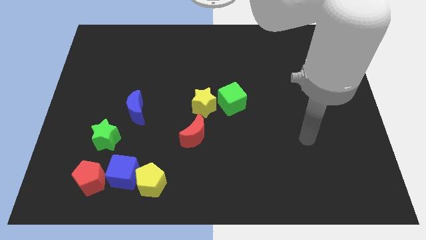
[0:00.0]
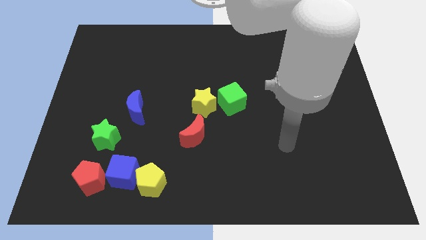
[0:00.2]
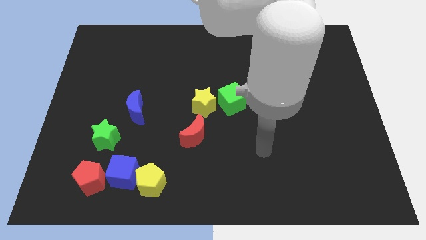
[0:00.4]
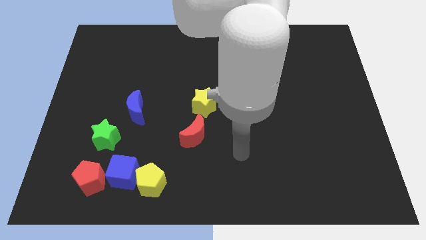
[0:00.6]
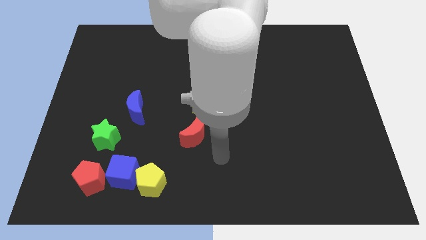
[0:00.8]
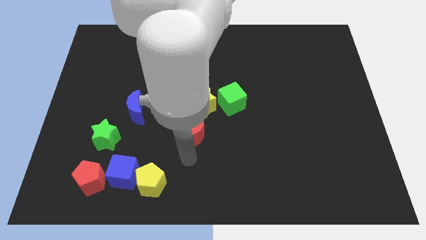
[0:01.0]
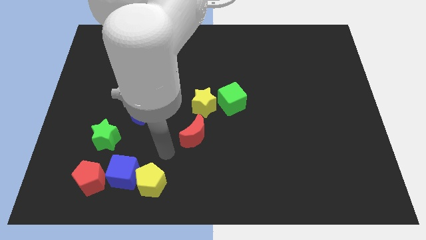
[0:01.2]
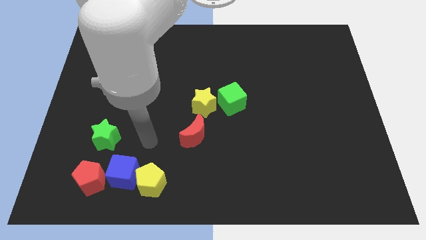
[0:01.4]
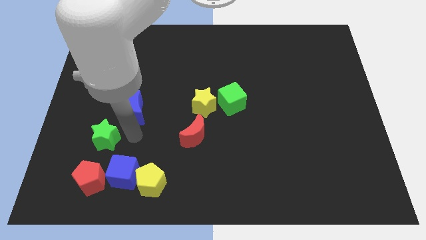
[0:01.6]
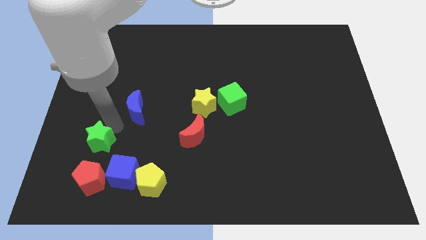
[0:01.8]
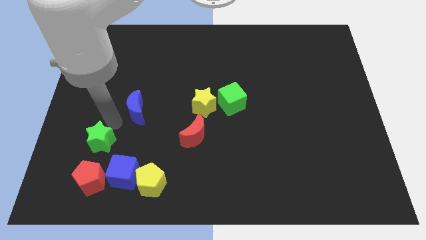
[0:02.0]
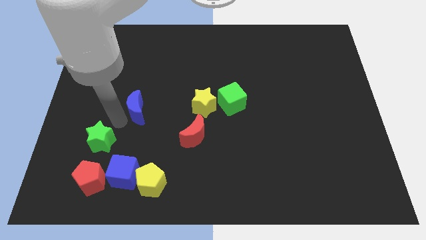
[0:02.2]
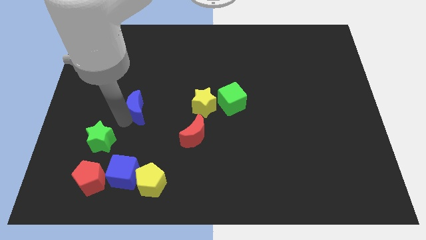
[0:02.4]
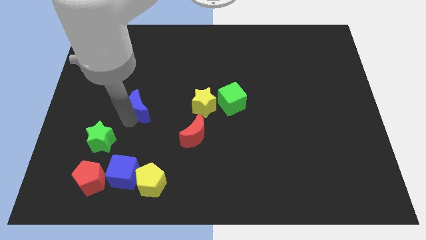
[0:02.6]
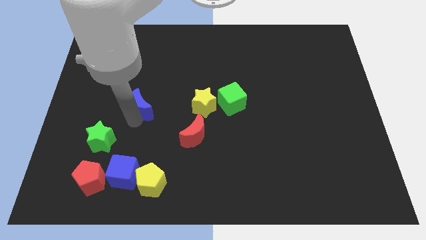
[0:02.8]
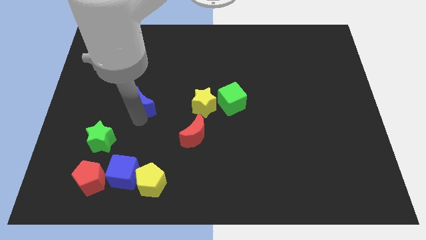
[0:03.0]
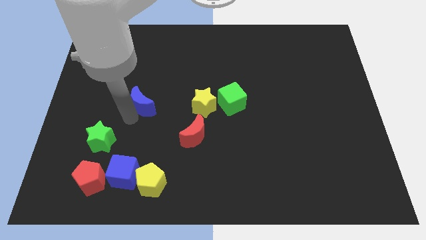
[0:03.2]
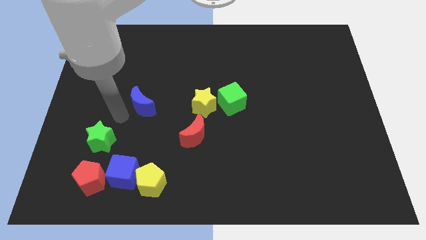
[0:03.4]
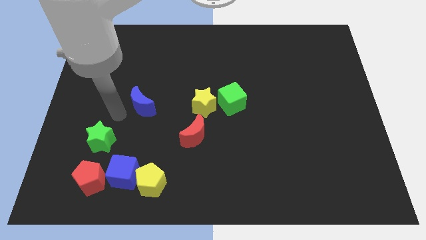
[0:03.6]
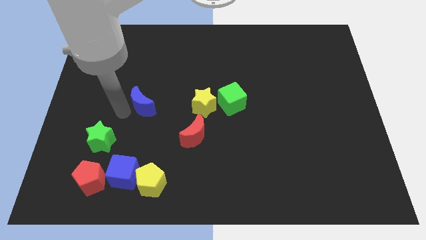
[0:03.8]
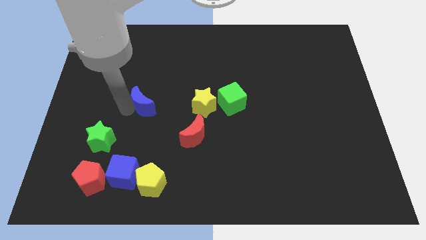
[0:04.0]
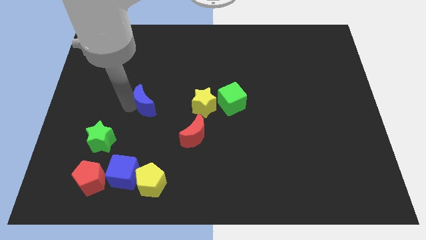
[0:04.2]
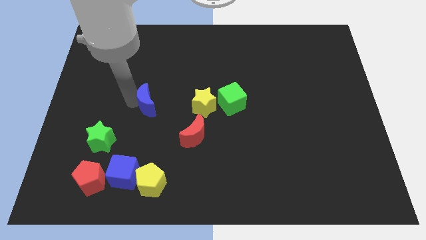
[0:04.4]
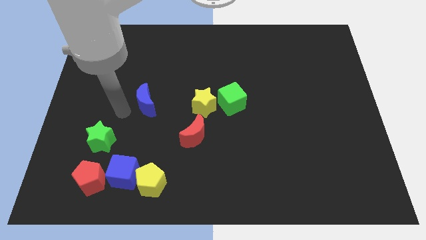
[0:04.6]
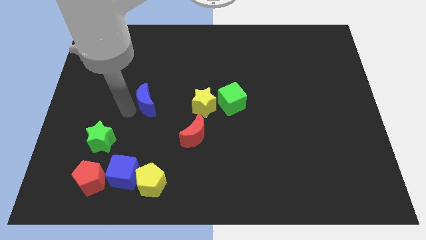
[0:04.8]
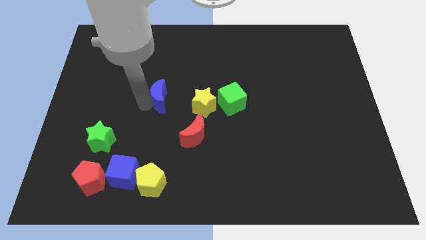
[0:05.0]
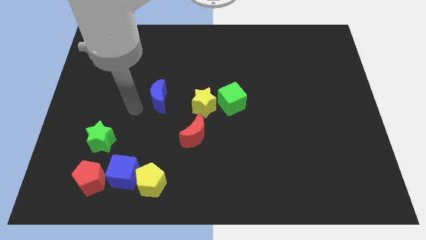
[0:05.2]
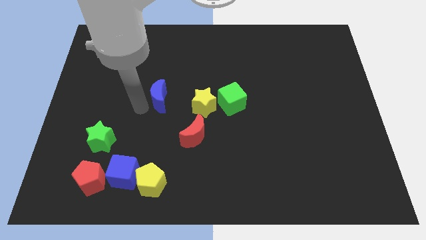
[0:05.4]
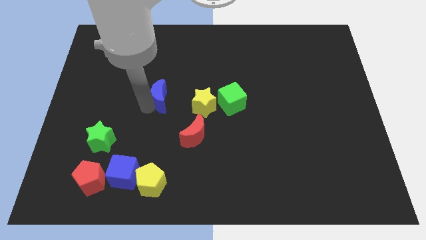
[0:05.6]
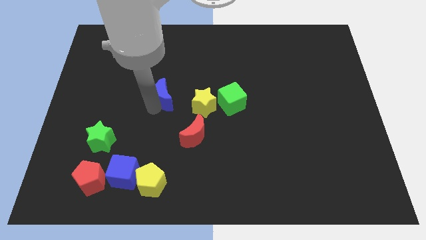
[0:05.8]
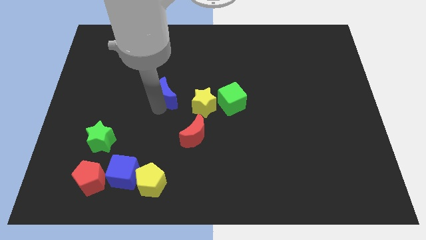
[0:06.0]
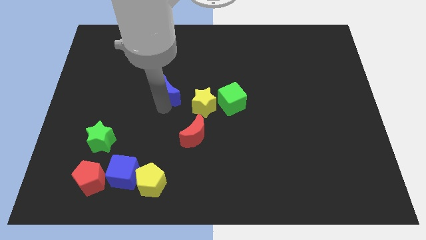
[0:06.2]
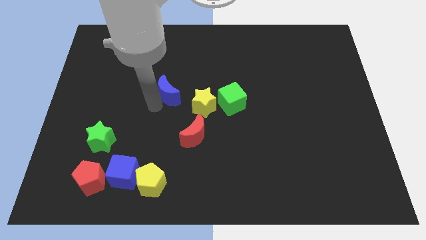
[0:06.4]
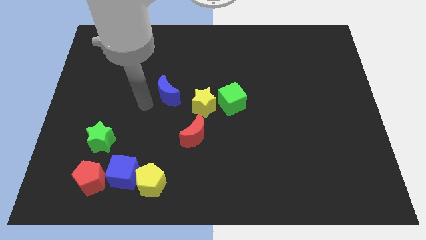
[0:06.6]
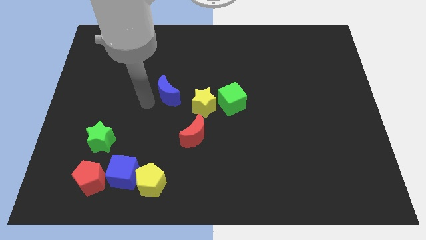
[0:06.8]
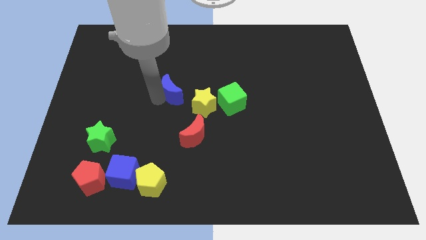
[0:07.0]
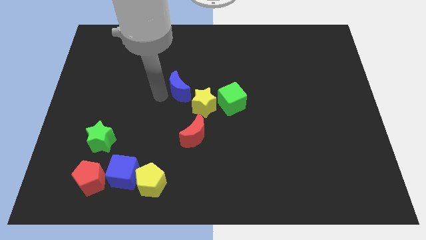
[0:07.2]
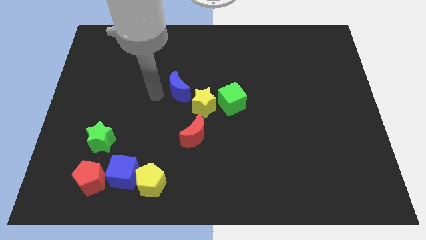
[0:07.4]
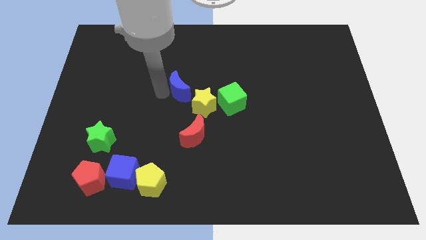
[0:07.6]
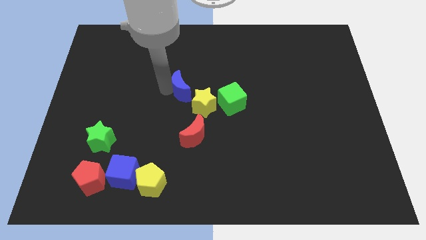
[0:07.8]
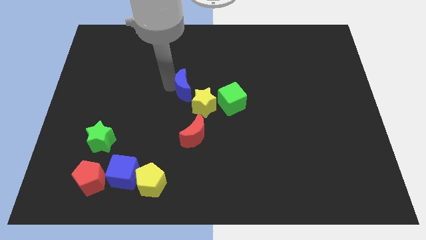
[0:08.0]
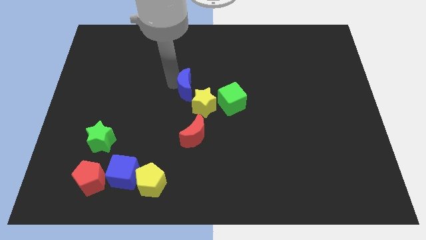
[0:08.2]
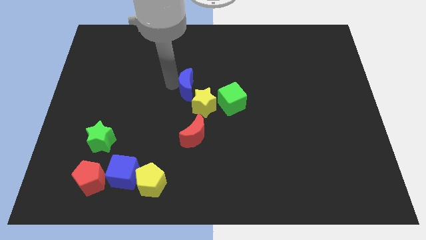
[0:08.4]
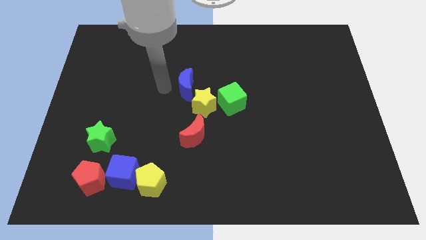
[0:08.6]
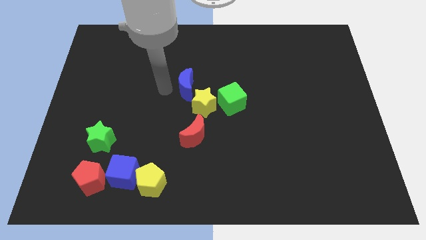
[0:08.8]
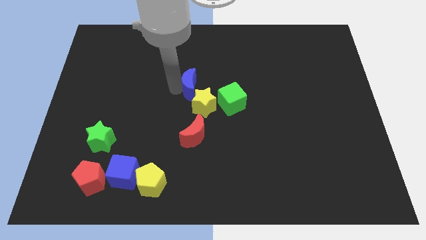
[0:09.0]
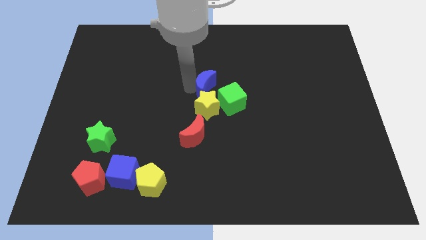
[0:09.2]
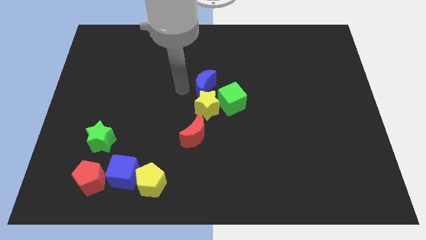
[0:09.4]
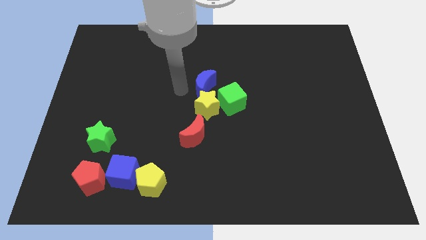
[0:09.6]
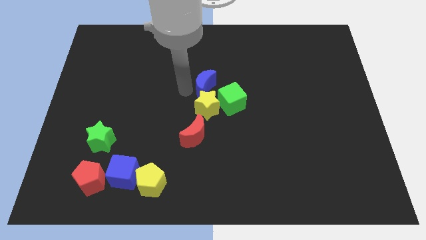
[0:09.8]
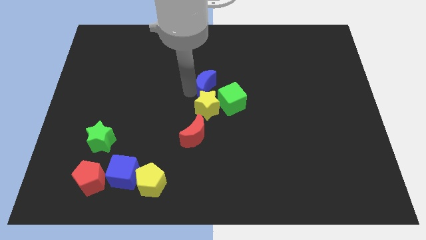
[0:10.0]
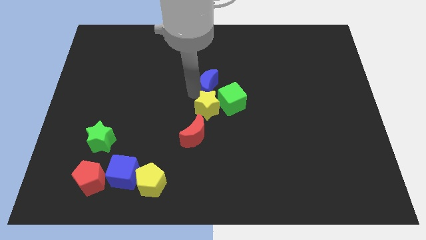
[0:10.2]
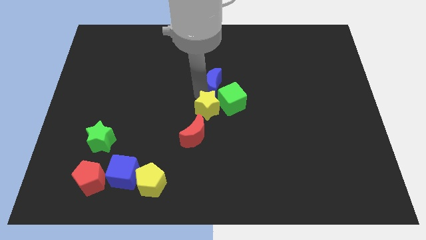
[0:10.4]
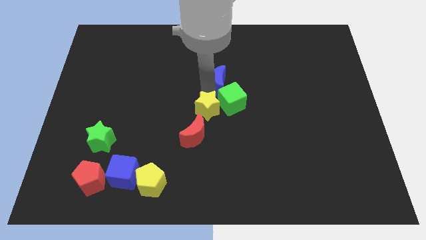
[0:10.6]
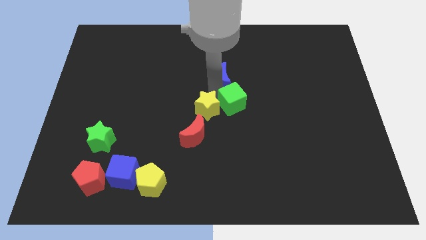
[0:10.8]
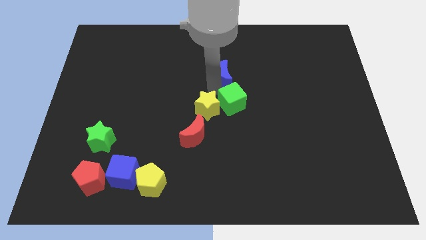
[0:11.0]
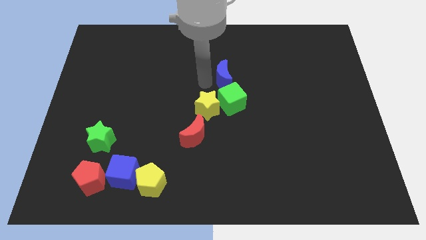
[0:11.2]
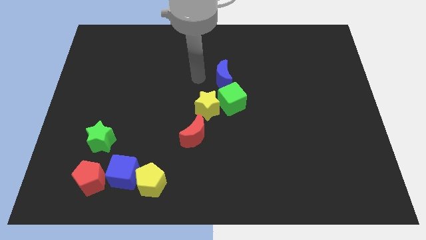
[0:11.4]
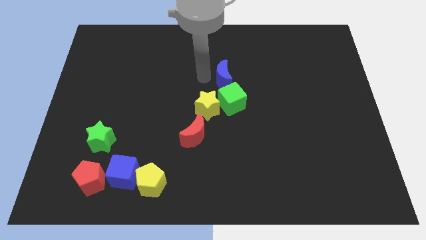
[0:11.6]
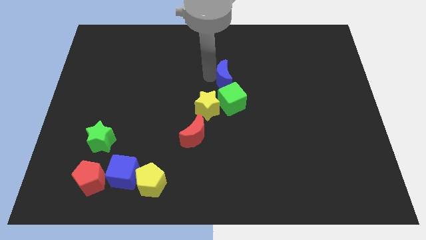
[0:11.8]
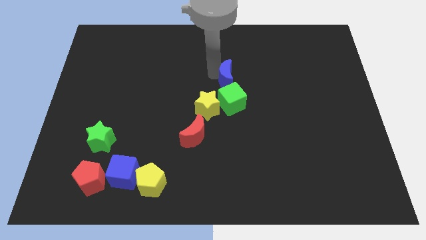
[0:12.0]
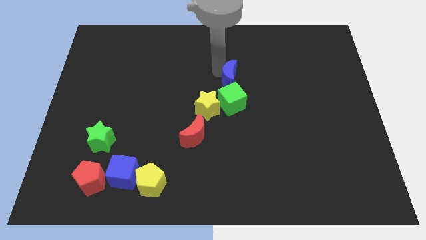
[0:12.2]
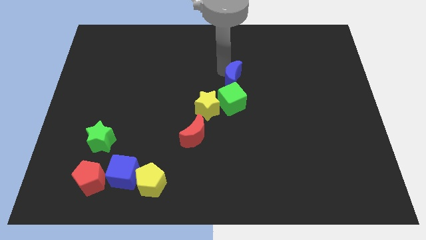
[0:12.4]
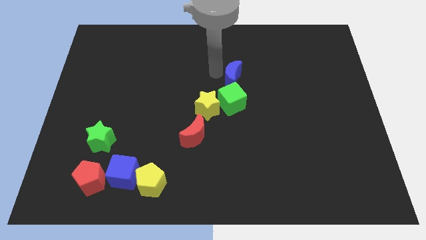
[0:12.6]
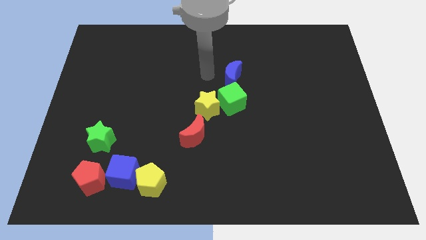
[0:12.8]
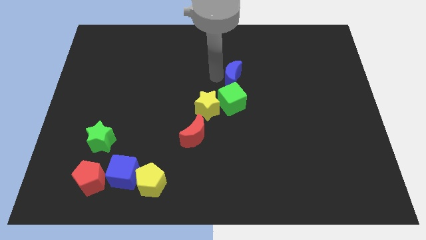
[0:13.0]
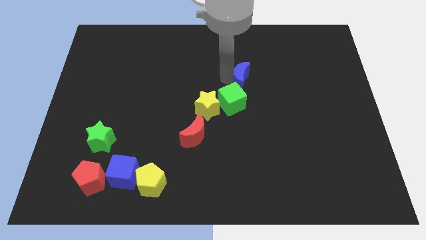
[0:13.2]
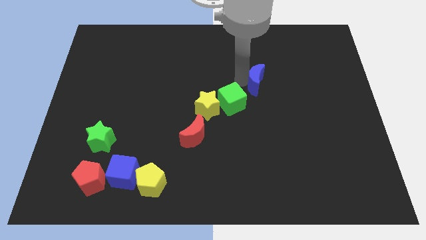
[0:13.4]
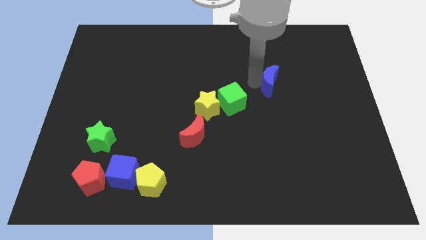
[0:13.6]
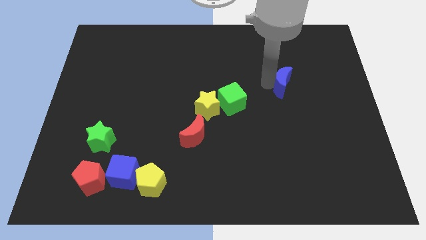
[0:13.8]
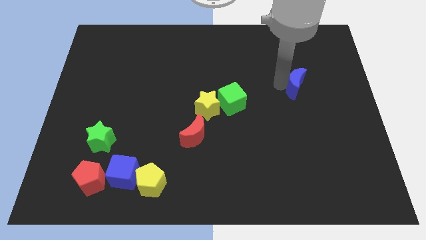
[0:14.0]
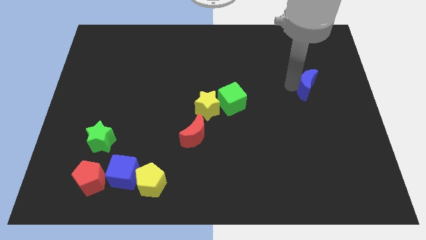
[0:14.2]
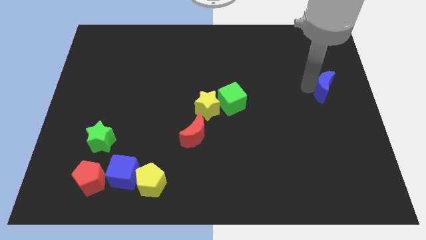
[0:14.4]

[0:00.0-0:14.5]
push the blue moon to the right side
